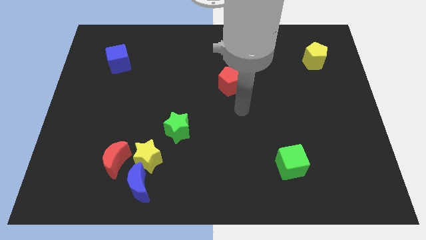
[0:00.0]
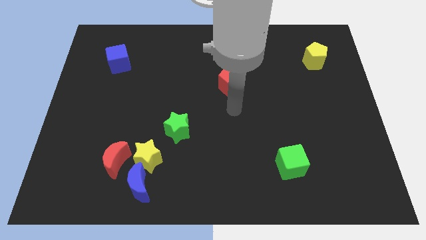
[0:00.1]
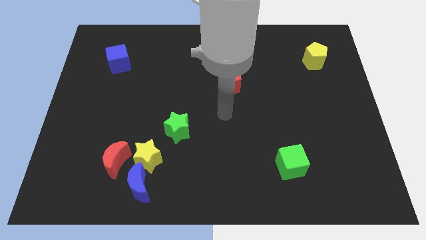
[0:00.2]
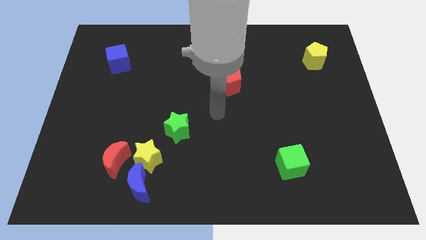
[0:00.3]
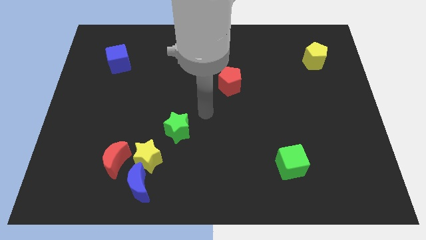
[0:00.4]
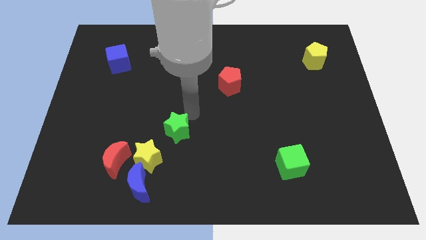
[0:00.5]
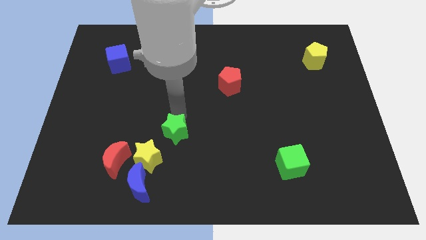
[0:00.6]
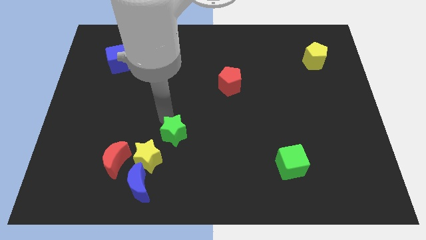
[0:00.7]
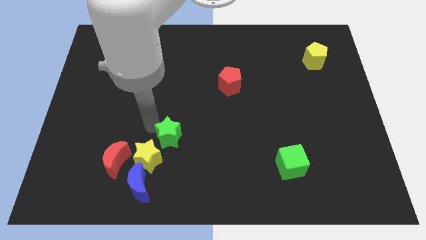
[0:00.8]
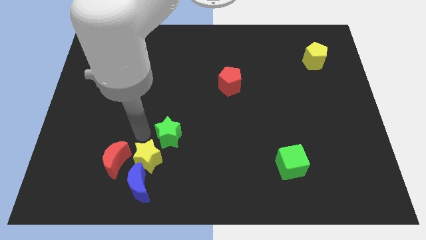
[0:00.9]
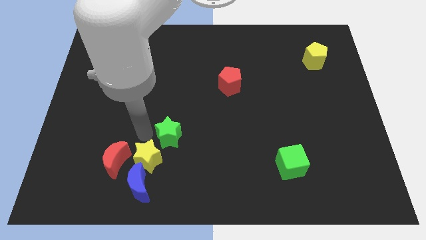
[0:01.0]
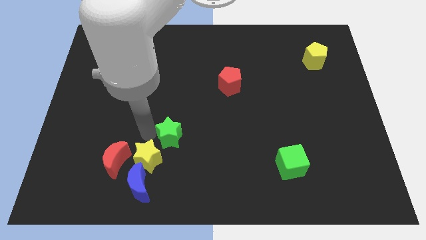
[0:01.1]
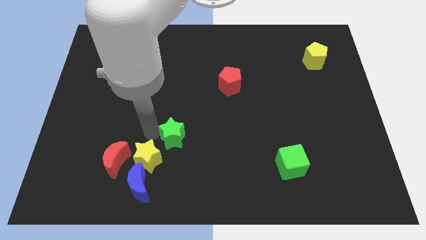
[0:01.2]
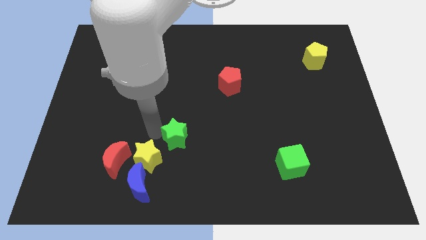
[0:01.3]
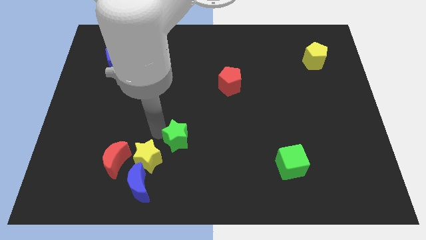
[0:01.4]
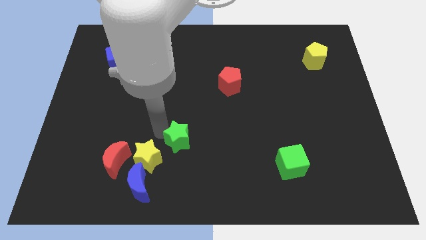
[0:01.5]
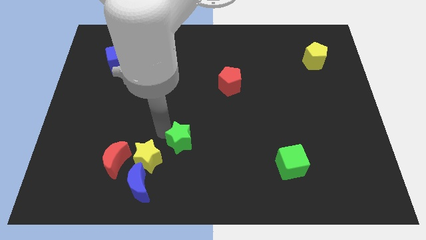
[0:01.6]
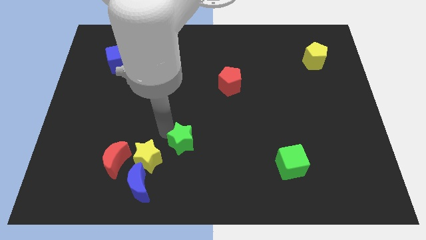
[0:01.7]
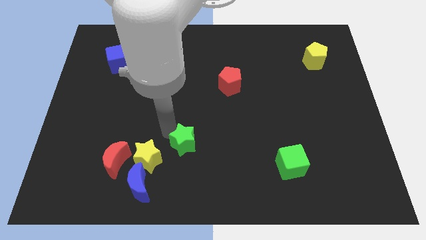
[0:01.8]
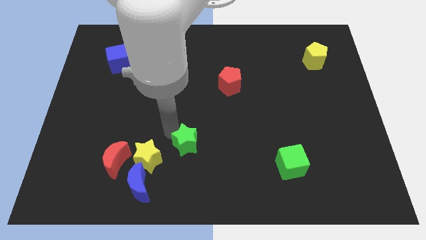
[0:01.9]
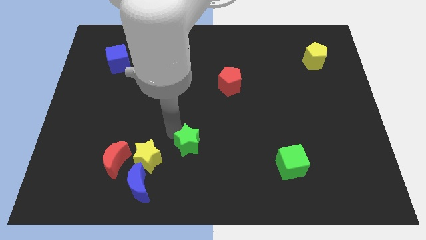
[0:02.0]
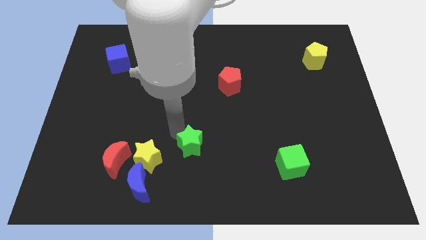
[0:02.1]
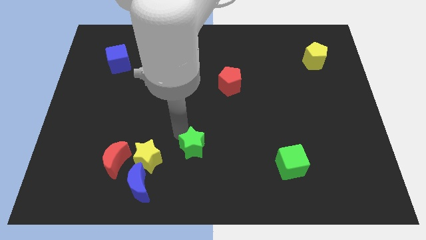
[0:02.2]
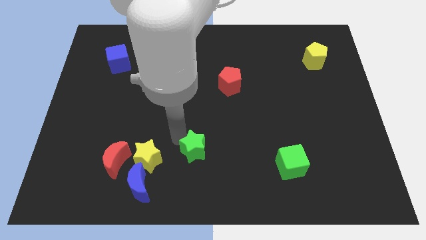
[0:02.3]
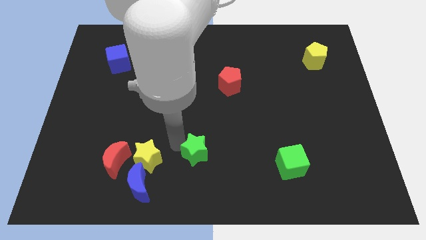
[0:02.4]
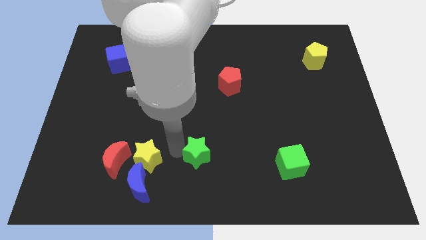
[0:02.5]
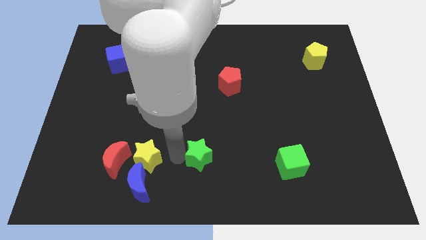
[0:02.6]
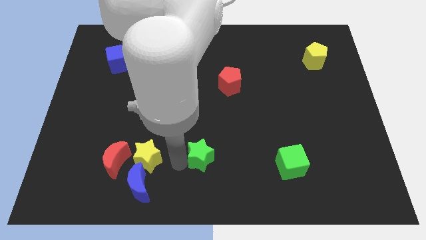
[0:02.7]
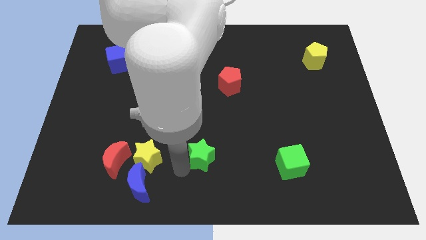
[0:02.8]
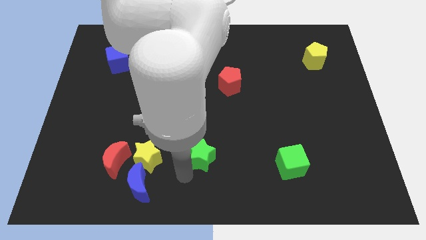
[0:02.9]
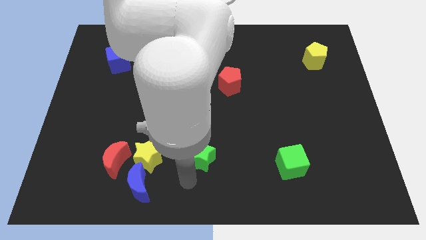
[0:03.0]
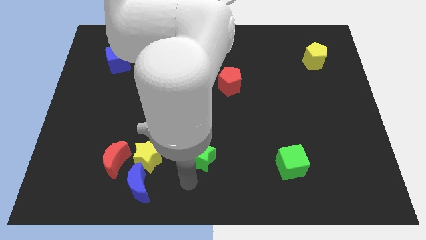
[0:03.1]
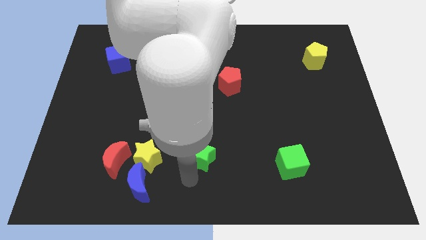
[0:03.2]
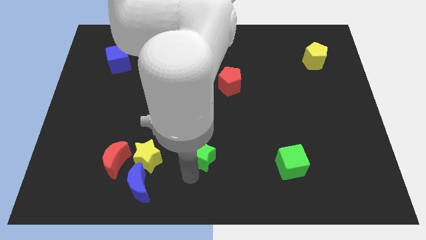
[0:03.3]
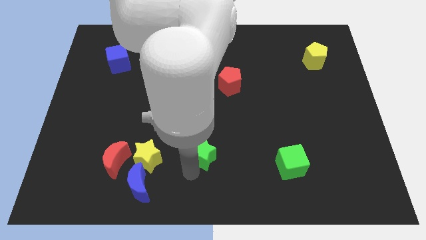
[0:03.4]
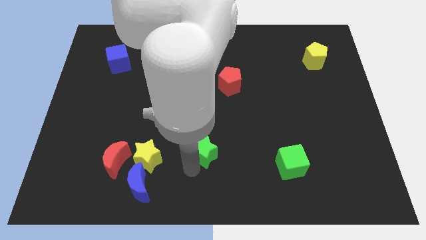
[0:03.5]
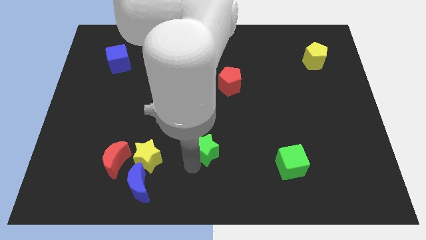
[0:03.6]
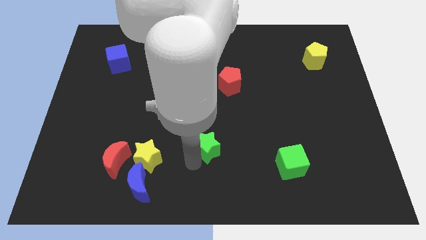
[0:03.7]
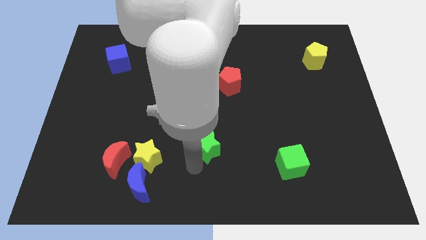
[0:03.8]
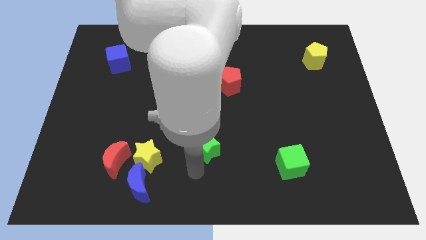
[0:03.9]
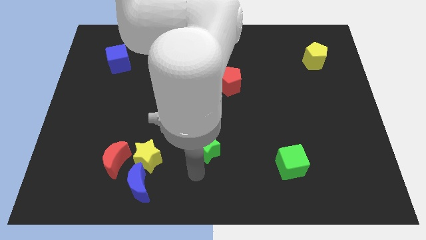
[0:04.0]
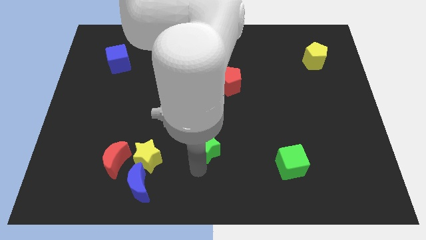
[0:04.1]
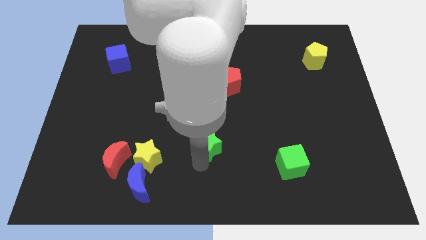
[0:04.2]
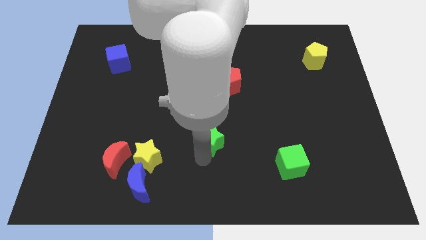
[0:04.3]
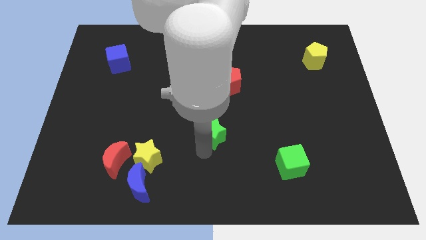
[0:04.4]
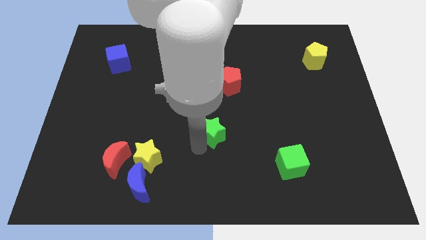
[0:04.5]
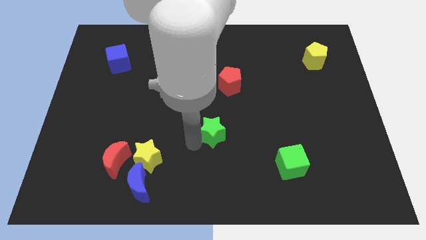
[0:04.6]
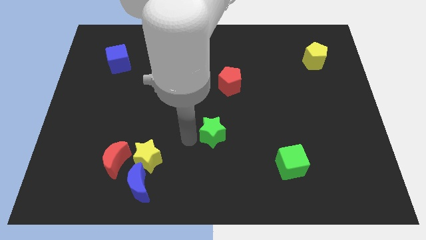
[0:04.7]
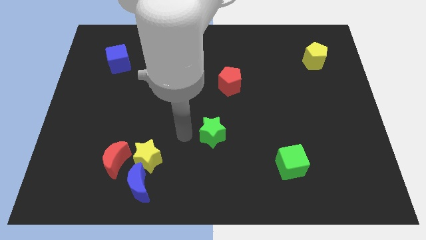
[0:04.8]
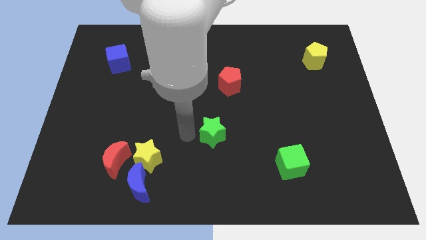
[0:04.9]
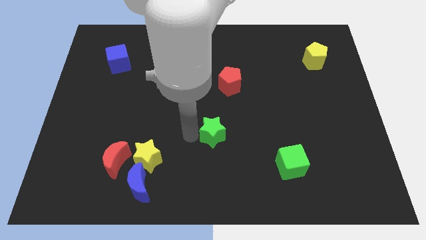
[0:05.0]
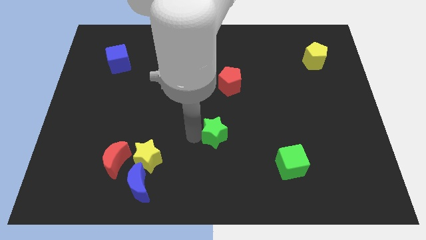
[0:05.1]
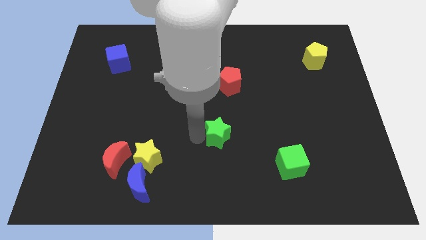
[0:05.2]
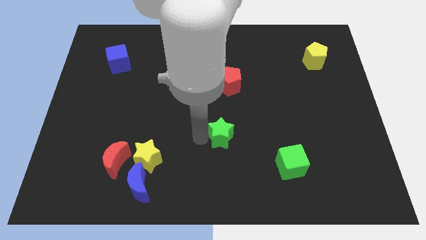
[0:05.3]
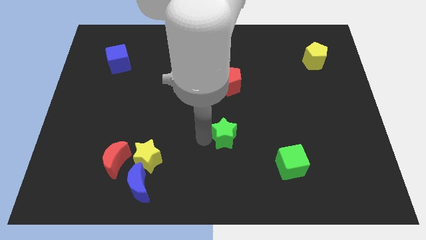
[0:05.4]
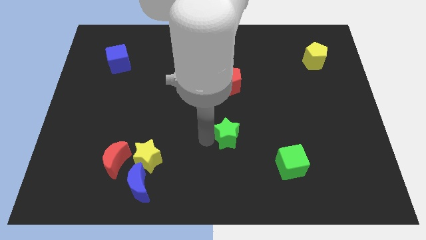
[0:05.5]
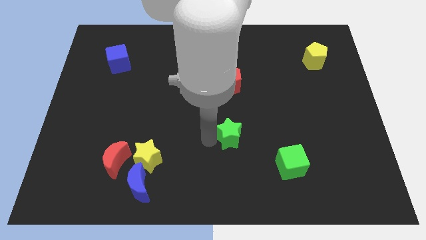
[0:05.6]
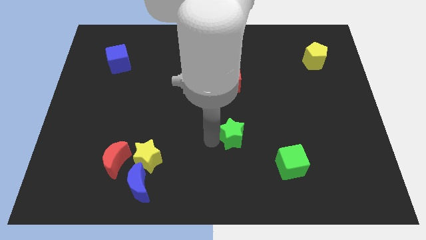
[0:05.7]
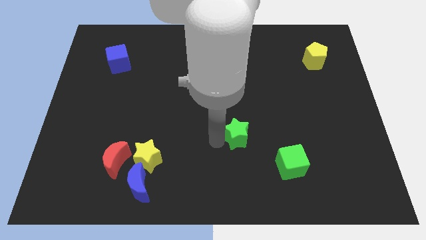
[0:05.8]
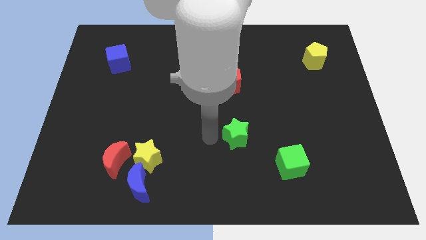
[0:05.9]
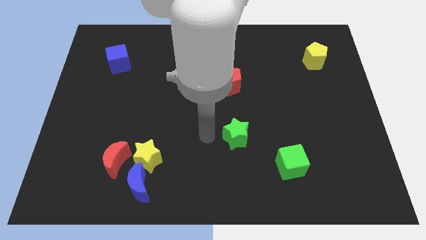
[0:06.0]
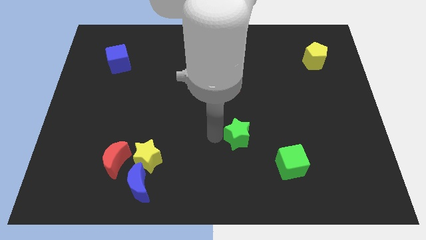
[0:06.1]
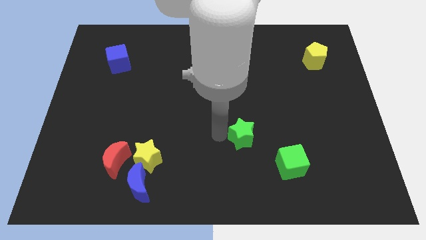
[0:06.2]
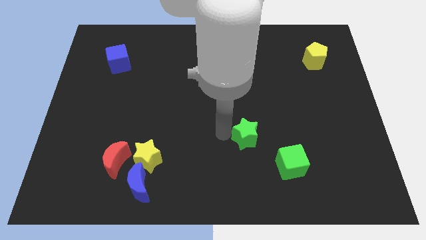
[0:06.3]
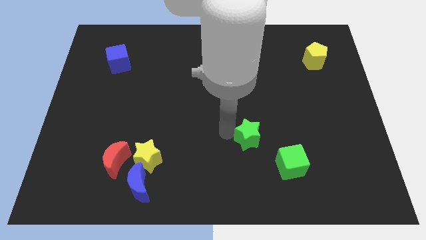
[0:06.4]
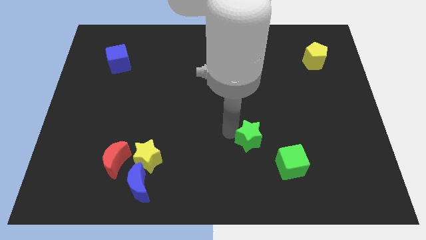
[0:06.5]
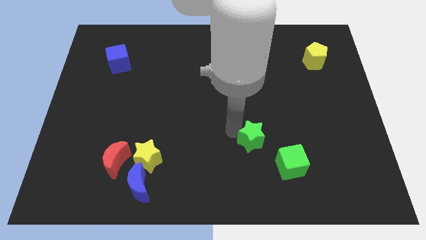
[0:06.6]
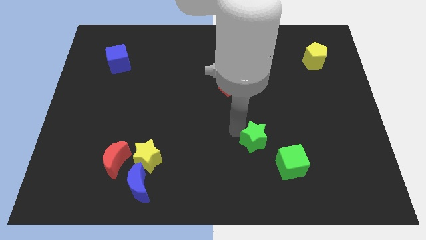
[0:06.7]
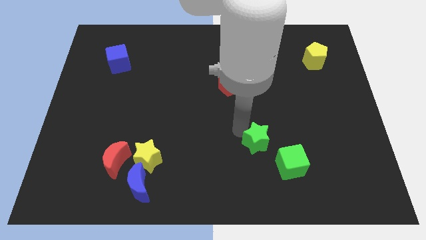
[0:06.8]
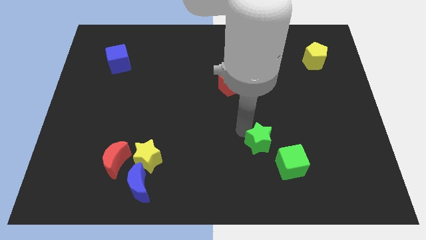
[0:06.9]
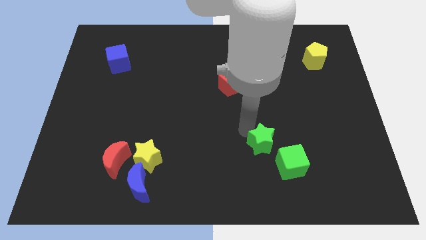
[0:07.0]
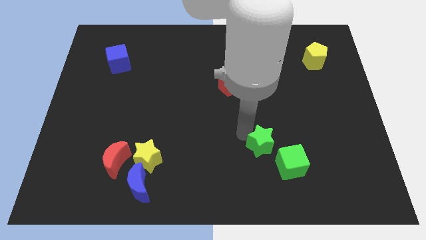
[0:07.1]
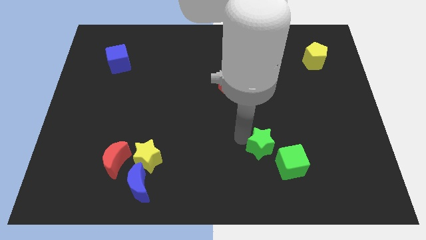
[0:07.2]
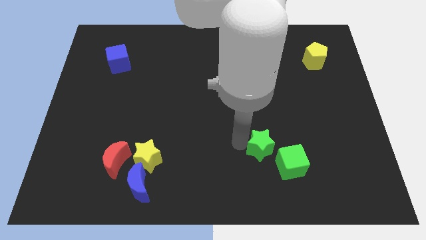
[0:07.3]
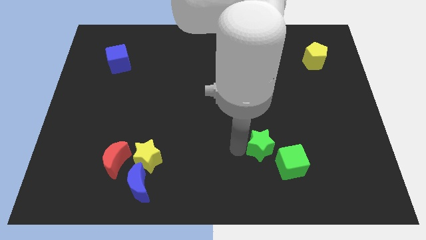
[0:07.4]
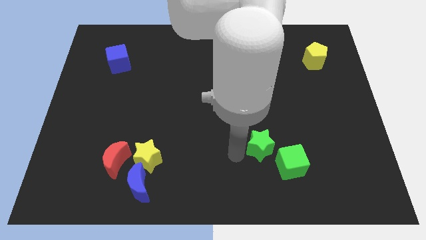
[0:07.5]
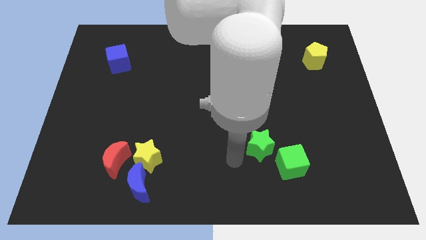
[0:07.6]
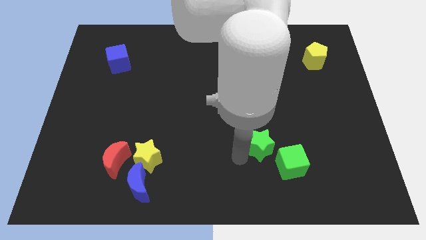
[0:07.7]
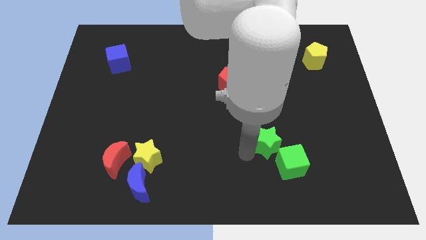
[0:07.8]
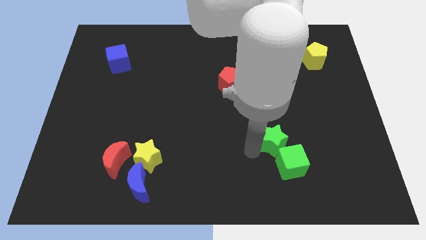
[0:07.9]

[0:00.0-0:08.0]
move the green star right
